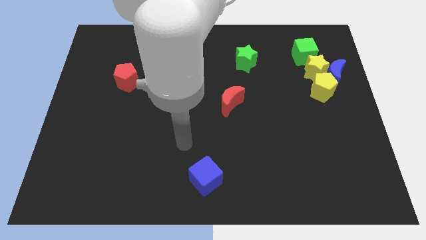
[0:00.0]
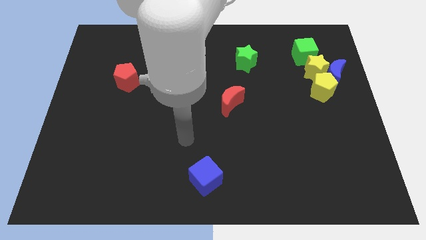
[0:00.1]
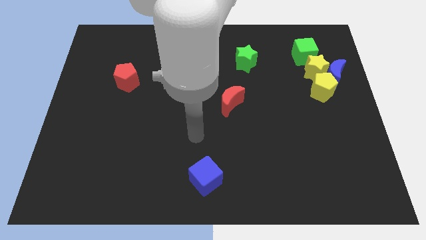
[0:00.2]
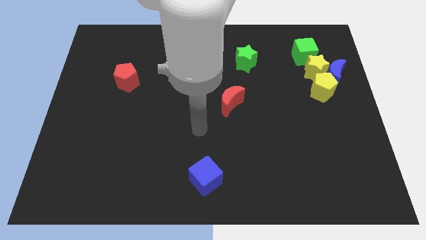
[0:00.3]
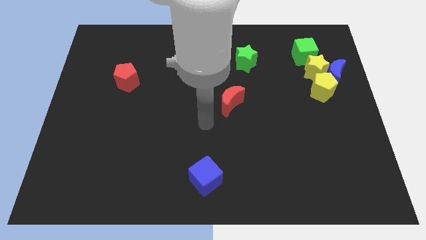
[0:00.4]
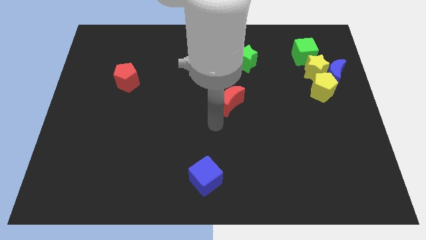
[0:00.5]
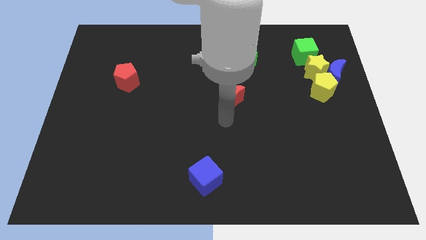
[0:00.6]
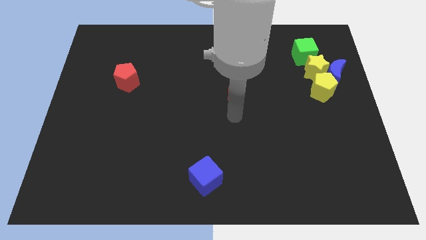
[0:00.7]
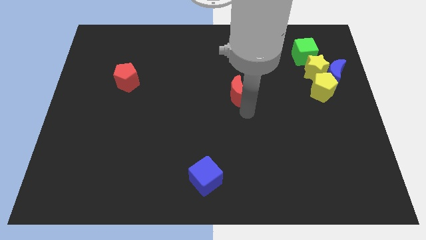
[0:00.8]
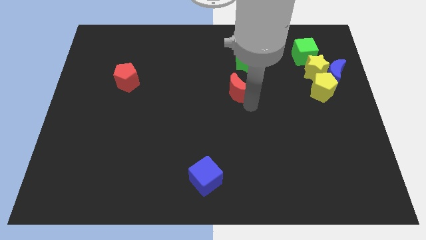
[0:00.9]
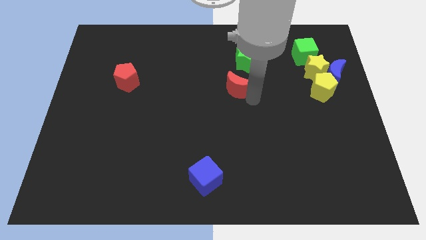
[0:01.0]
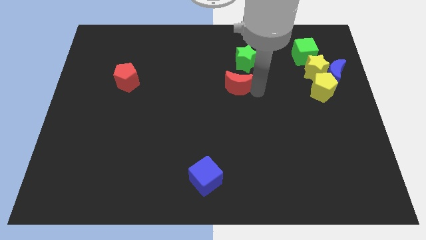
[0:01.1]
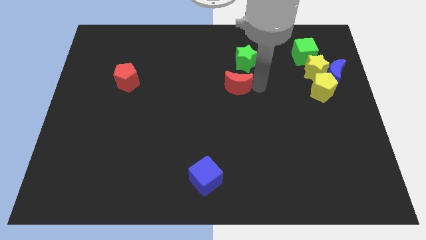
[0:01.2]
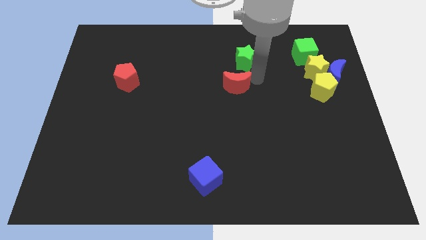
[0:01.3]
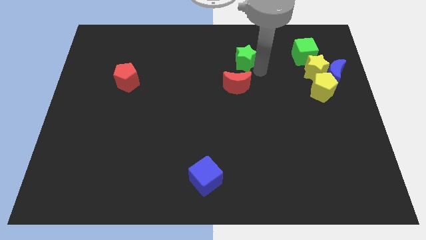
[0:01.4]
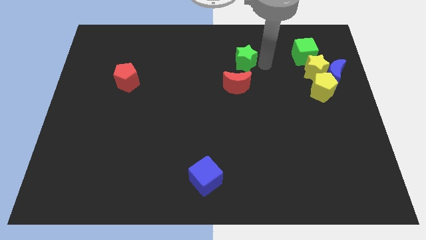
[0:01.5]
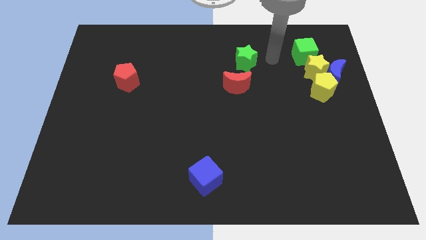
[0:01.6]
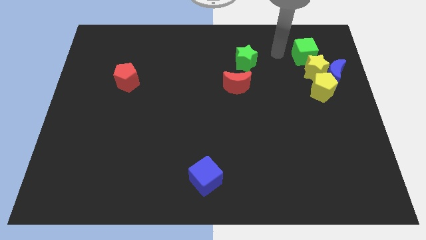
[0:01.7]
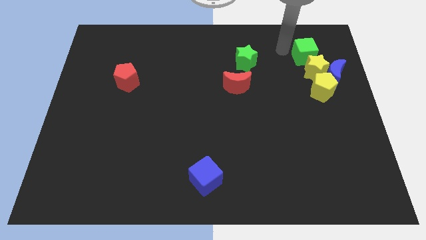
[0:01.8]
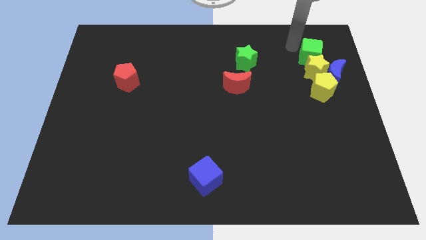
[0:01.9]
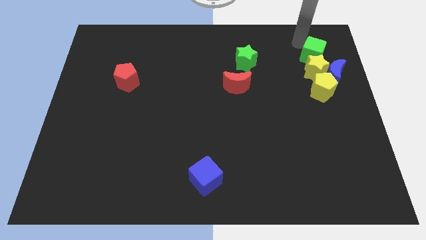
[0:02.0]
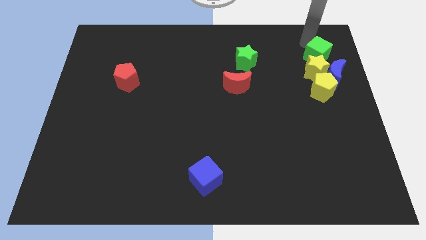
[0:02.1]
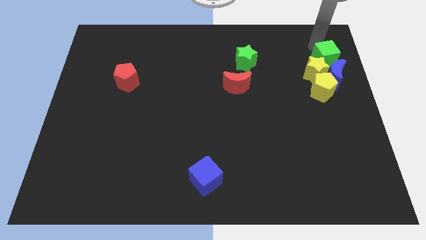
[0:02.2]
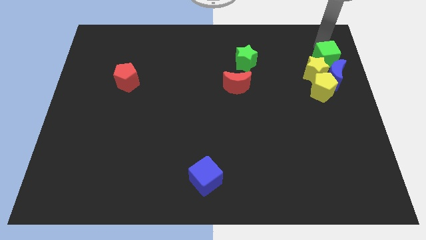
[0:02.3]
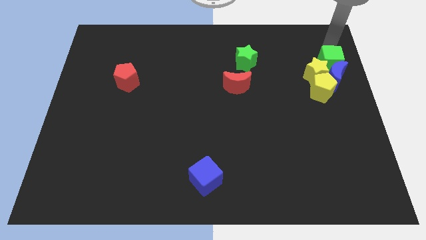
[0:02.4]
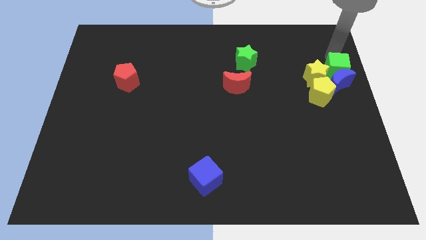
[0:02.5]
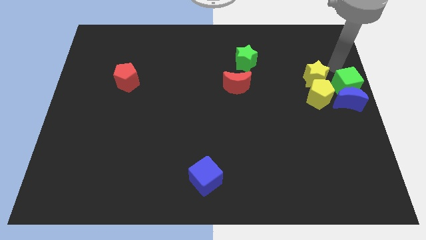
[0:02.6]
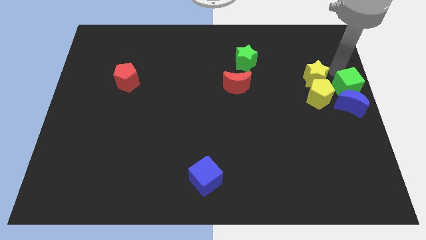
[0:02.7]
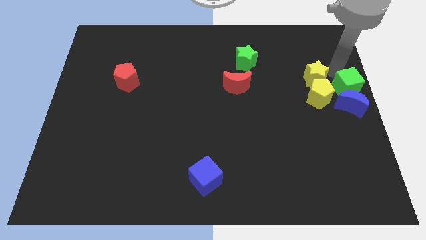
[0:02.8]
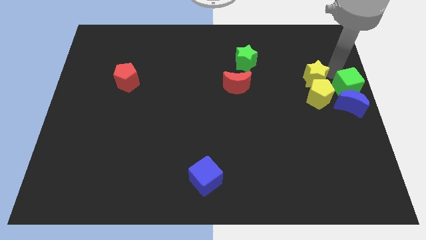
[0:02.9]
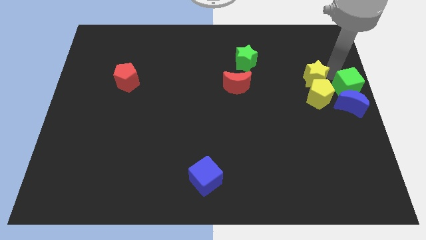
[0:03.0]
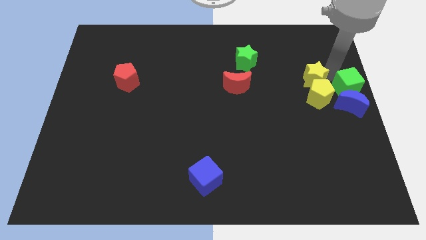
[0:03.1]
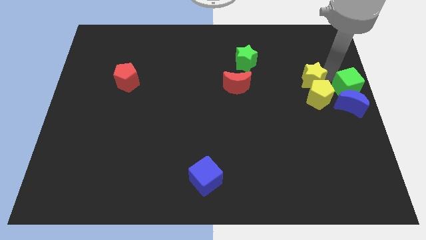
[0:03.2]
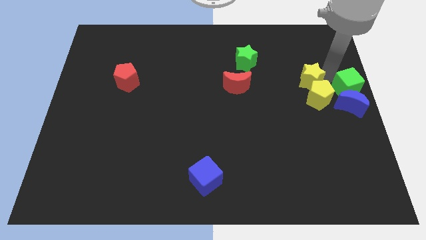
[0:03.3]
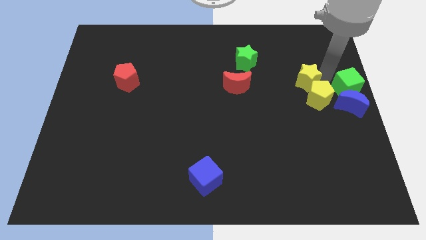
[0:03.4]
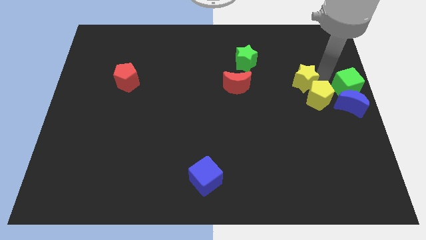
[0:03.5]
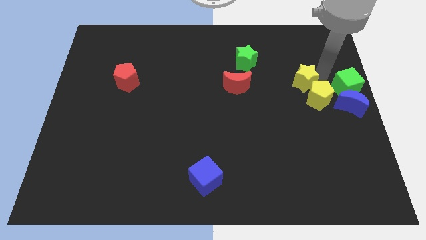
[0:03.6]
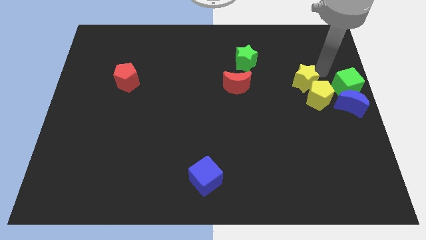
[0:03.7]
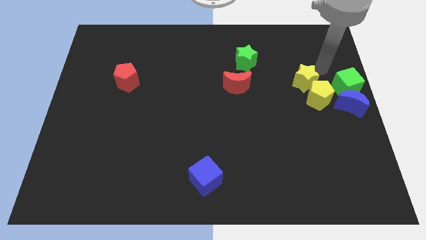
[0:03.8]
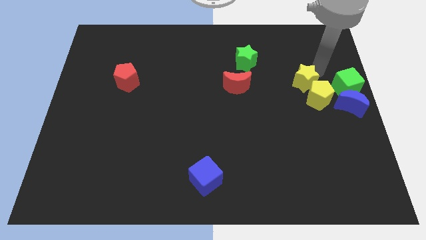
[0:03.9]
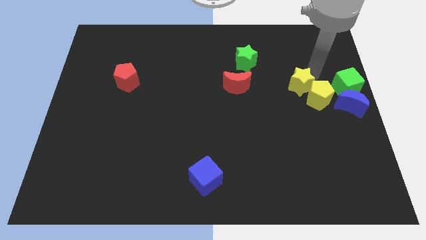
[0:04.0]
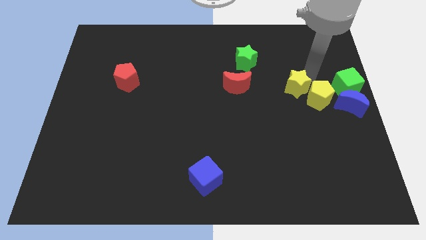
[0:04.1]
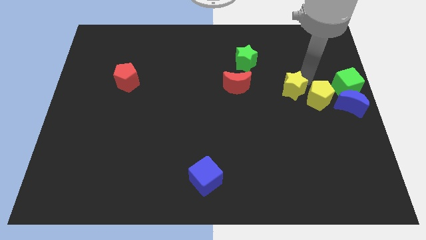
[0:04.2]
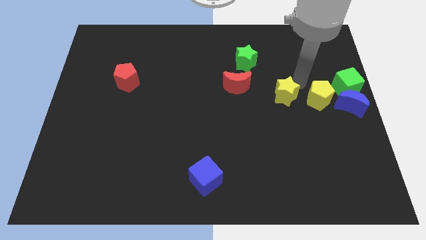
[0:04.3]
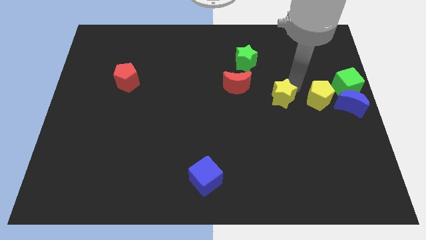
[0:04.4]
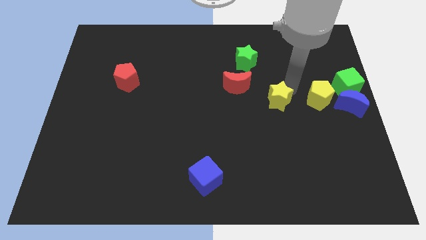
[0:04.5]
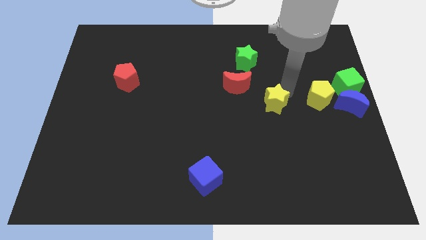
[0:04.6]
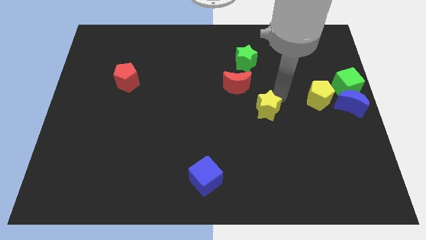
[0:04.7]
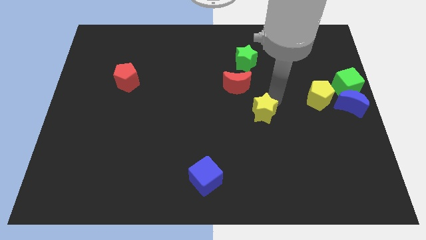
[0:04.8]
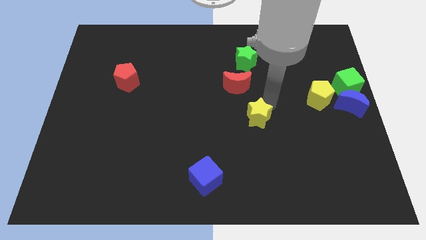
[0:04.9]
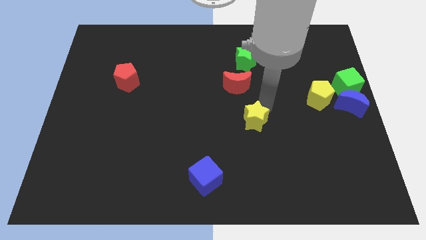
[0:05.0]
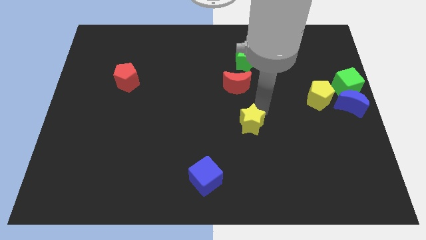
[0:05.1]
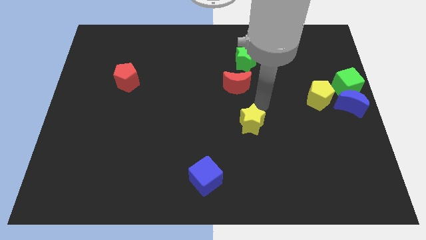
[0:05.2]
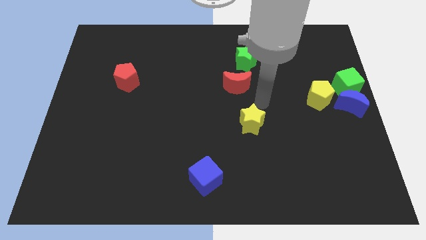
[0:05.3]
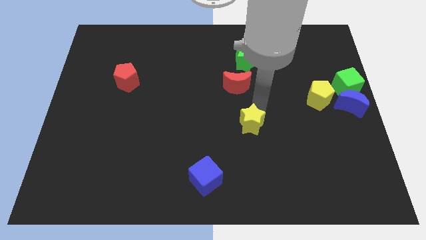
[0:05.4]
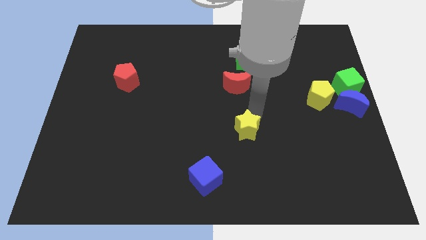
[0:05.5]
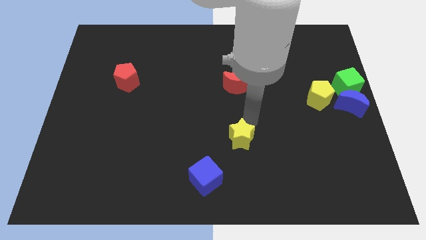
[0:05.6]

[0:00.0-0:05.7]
push the yellow star diagonally up and to the right of the blue cube

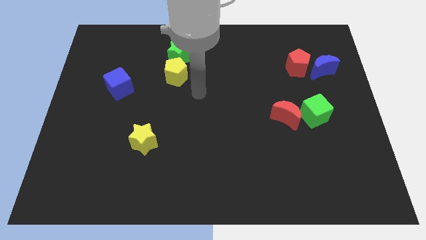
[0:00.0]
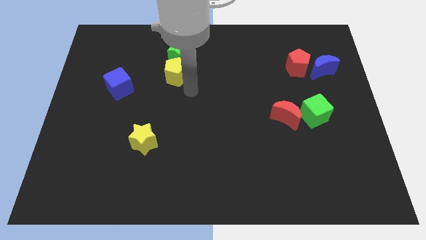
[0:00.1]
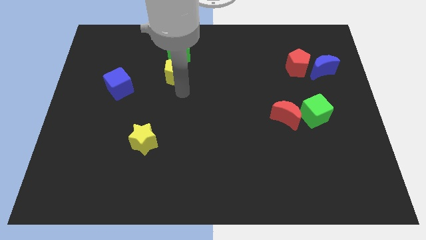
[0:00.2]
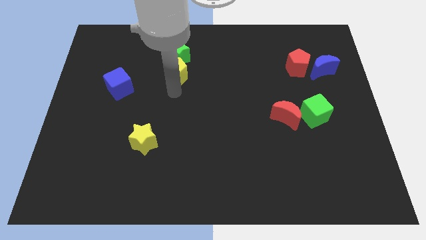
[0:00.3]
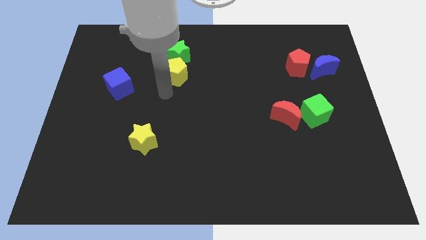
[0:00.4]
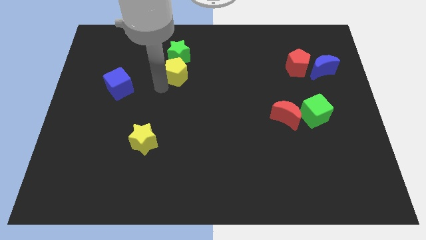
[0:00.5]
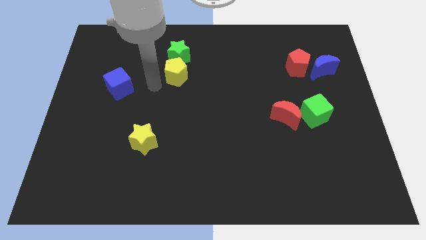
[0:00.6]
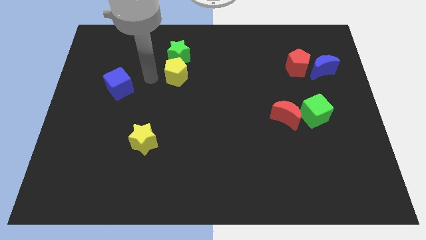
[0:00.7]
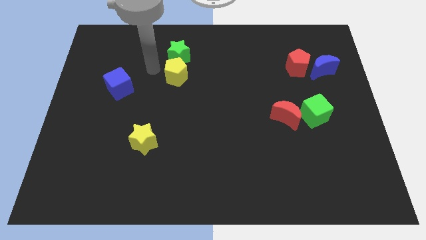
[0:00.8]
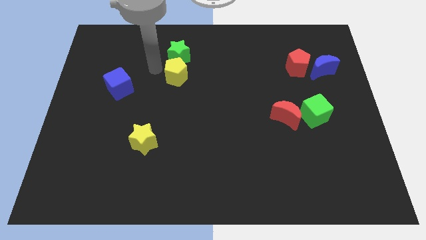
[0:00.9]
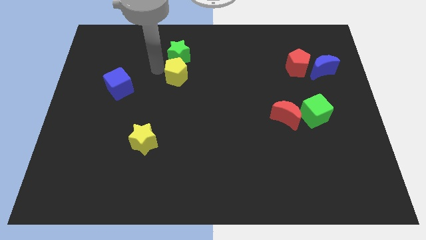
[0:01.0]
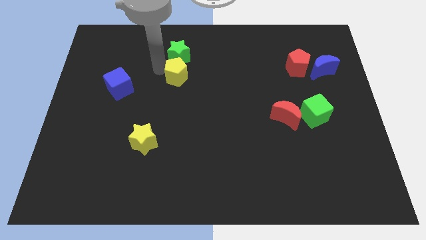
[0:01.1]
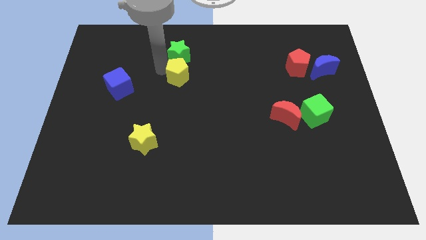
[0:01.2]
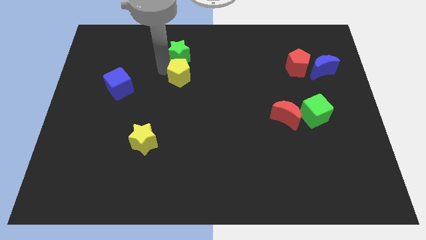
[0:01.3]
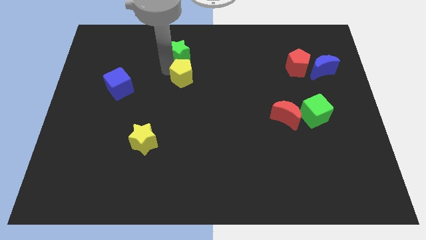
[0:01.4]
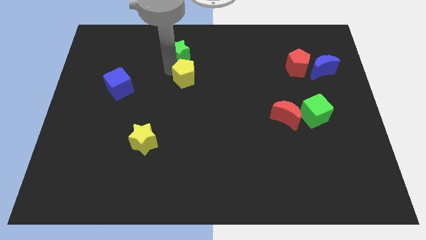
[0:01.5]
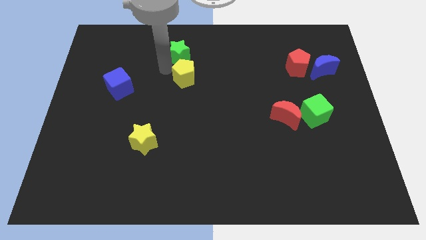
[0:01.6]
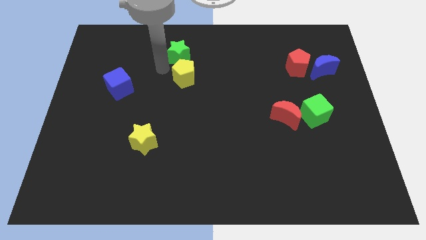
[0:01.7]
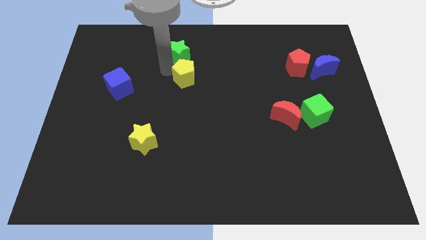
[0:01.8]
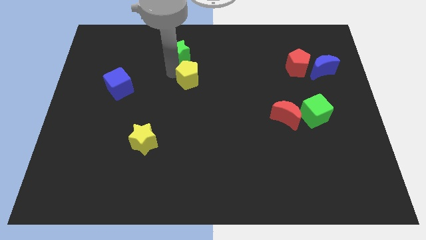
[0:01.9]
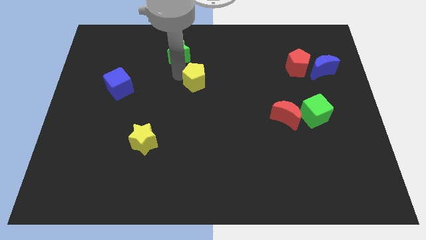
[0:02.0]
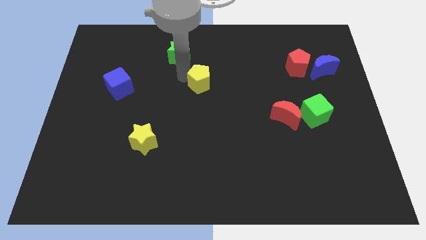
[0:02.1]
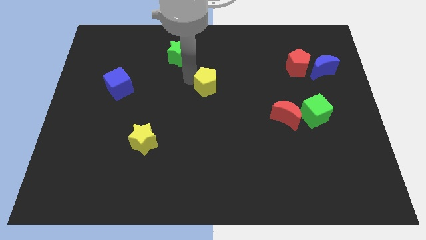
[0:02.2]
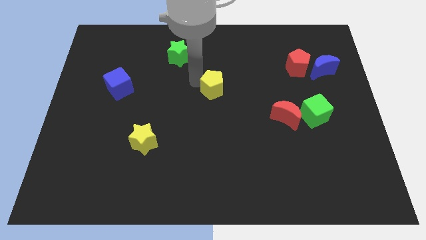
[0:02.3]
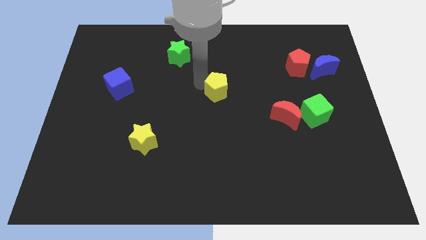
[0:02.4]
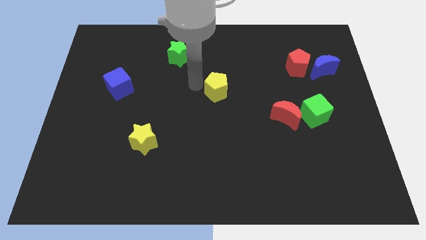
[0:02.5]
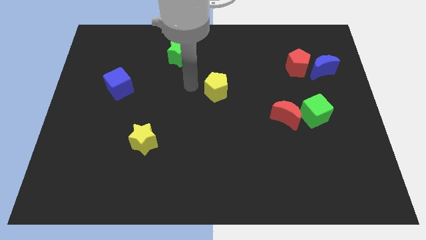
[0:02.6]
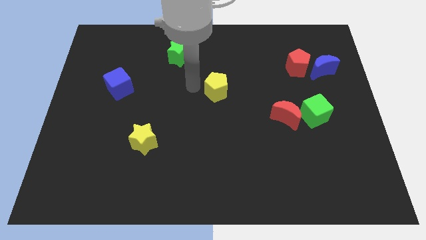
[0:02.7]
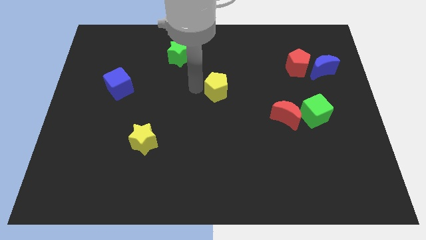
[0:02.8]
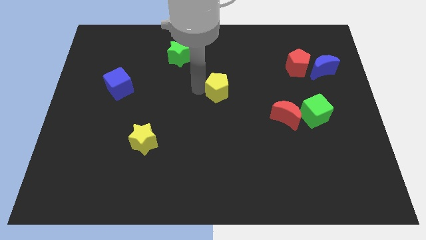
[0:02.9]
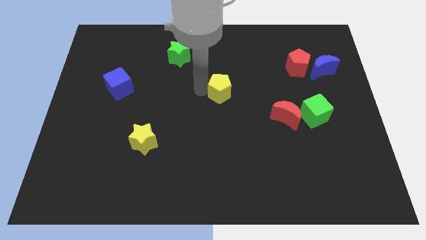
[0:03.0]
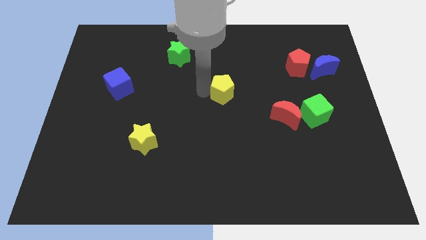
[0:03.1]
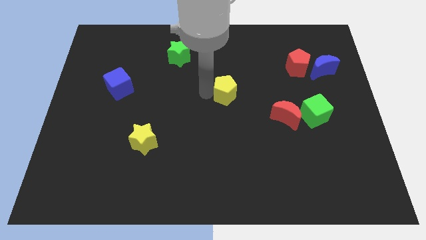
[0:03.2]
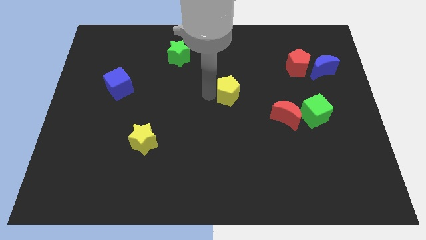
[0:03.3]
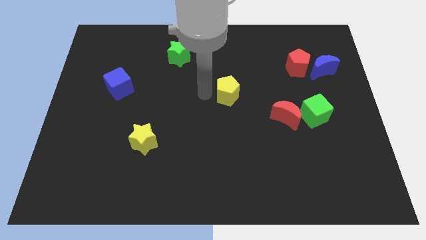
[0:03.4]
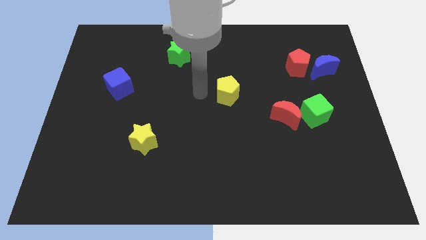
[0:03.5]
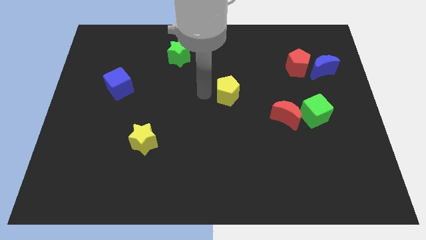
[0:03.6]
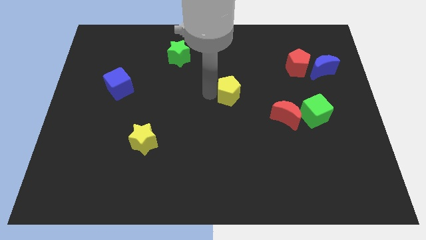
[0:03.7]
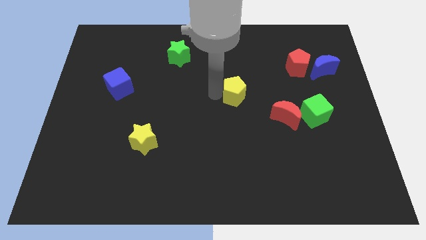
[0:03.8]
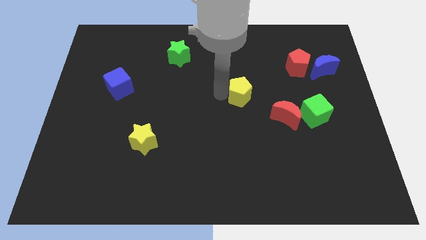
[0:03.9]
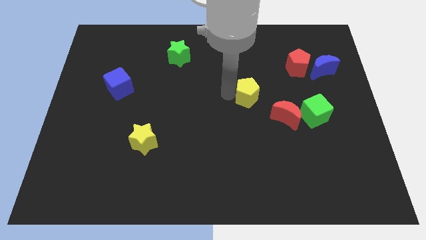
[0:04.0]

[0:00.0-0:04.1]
slide the yellow pentagon to the top left of the red moon
